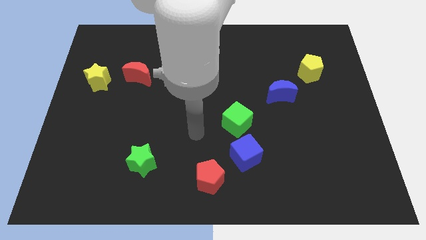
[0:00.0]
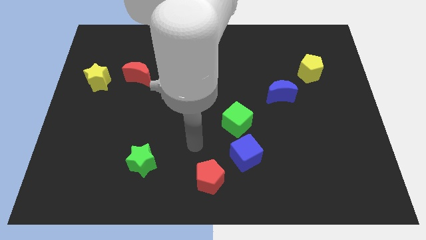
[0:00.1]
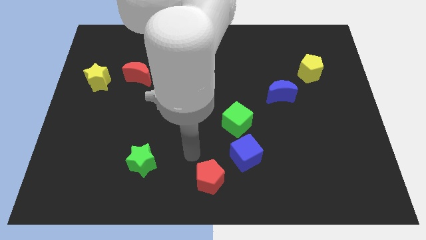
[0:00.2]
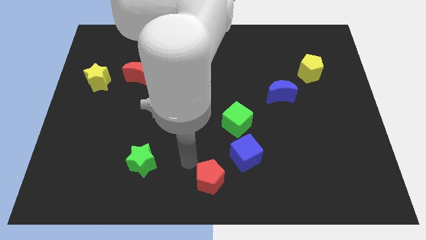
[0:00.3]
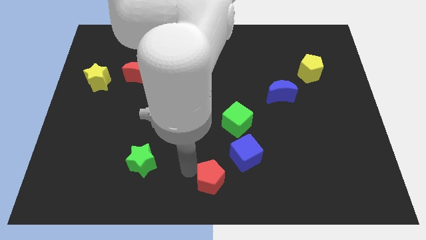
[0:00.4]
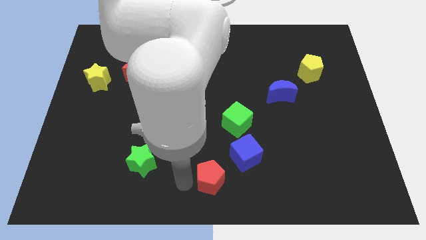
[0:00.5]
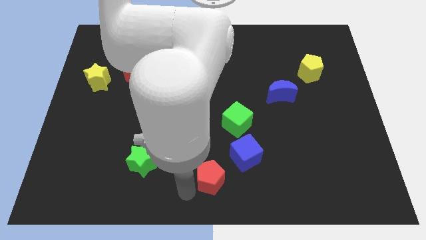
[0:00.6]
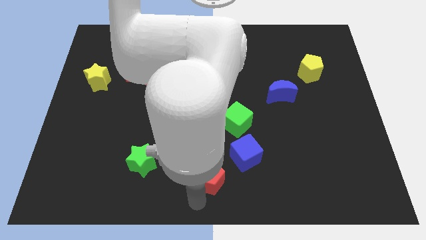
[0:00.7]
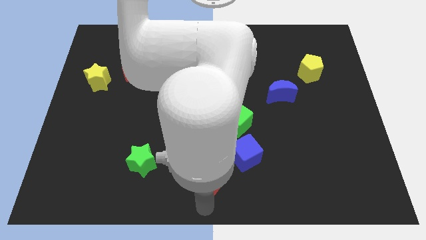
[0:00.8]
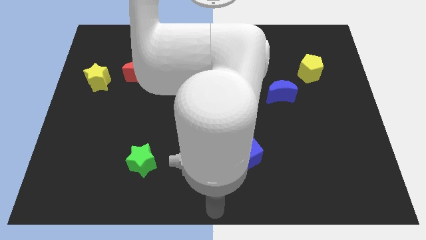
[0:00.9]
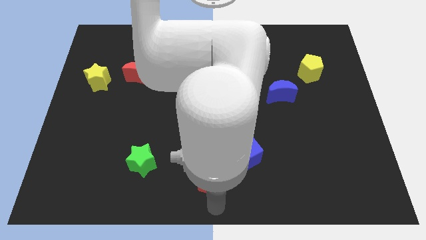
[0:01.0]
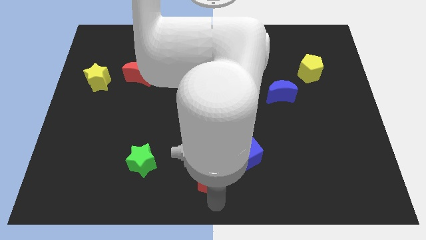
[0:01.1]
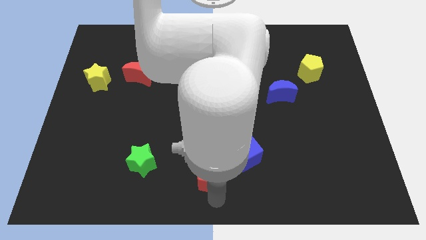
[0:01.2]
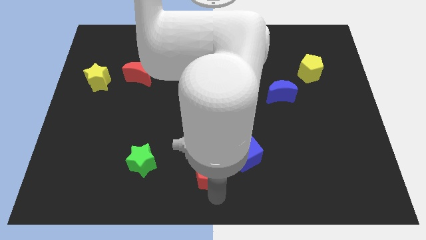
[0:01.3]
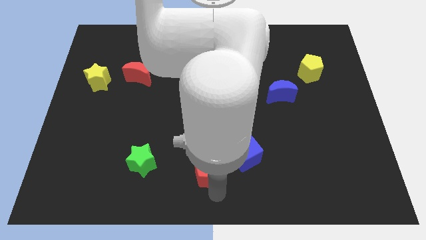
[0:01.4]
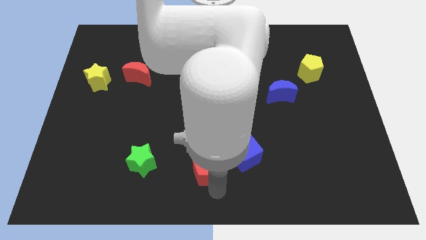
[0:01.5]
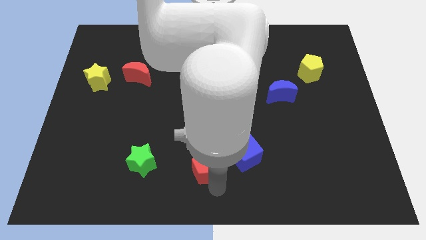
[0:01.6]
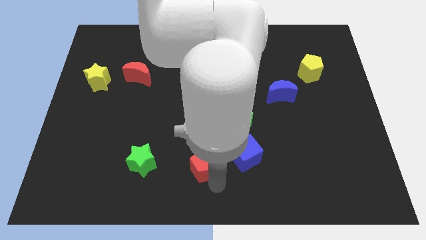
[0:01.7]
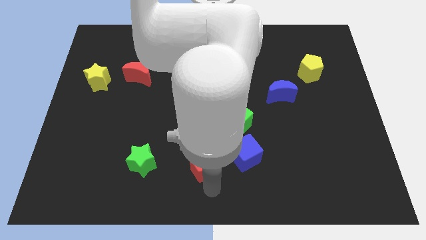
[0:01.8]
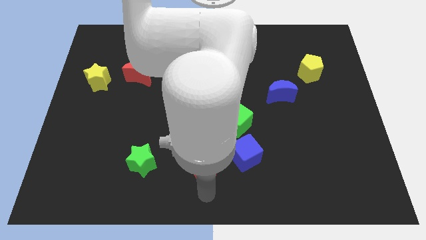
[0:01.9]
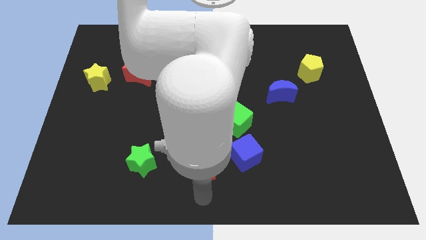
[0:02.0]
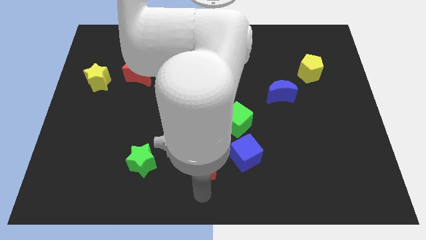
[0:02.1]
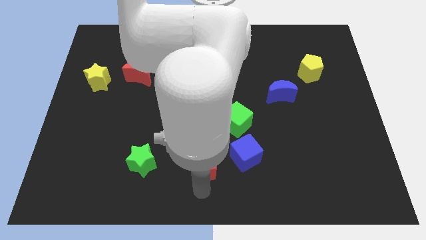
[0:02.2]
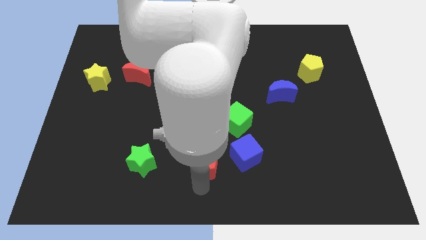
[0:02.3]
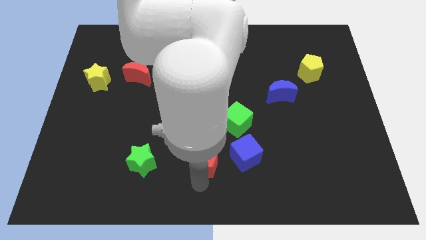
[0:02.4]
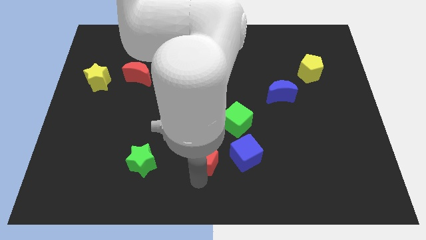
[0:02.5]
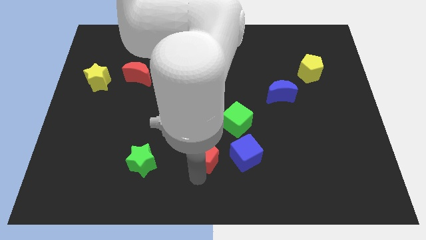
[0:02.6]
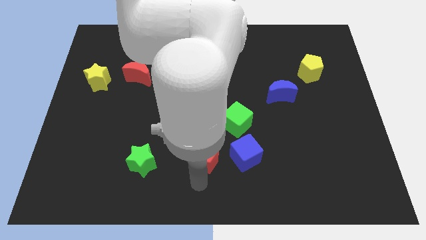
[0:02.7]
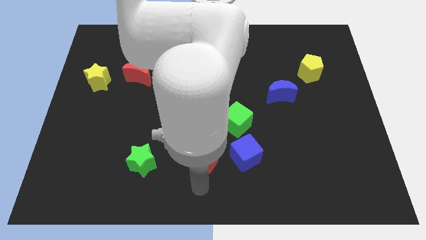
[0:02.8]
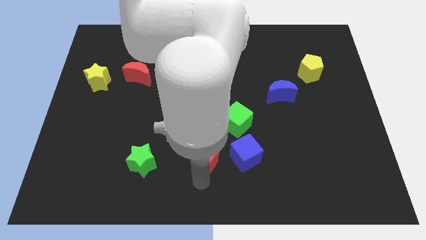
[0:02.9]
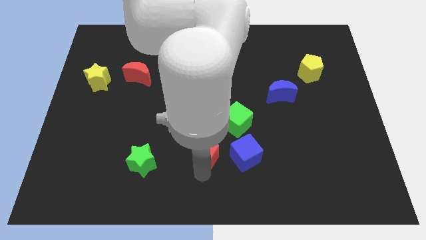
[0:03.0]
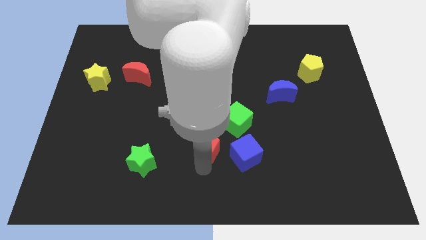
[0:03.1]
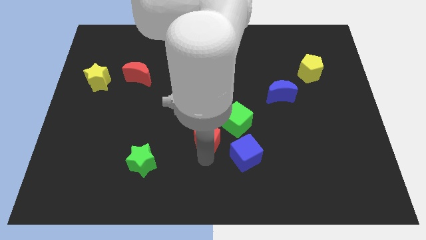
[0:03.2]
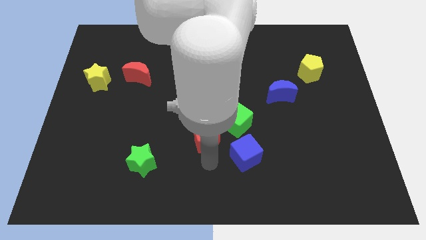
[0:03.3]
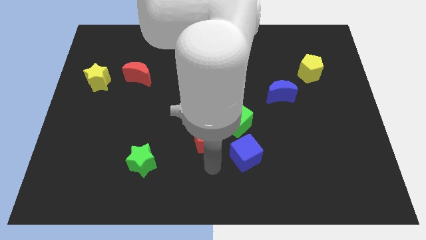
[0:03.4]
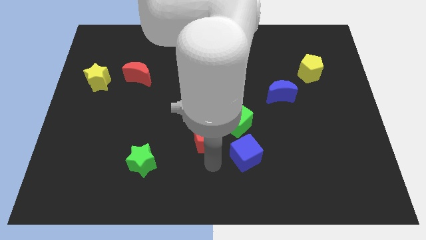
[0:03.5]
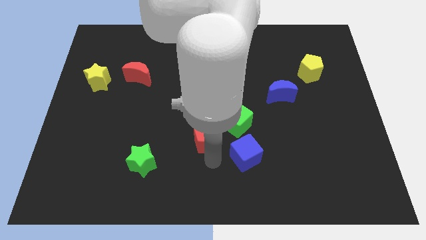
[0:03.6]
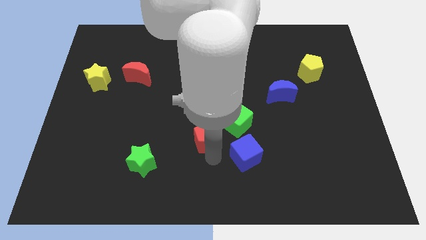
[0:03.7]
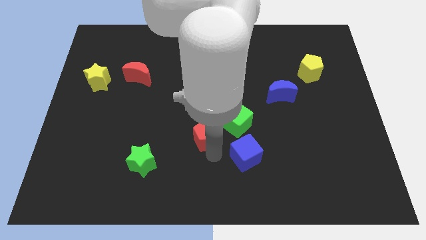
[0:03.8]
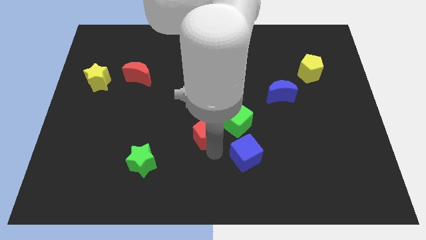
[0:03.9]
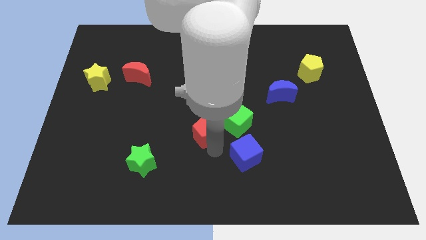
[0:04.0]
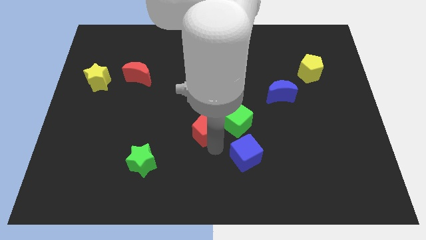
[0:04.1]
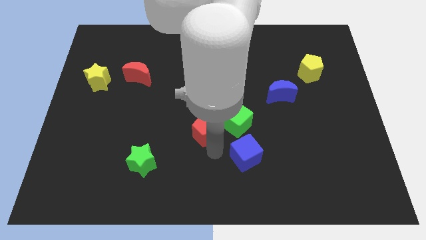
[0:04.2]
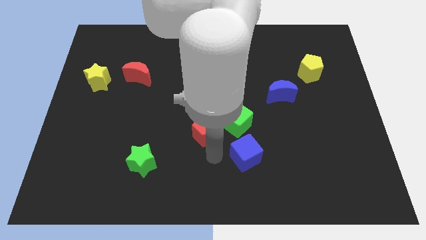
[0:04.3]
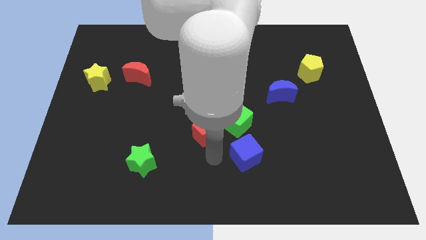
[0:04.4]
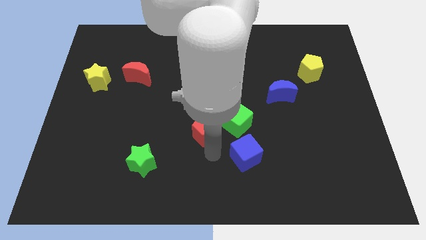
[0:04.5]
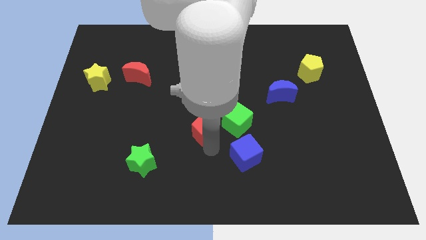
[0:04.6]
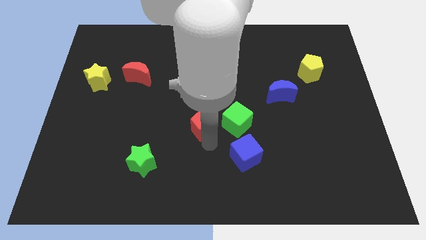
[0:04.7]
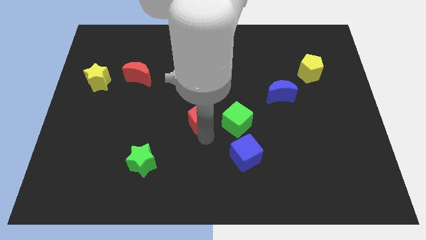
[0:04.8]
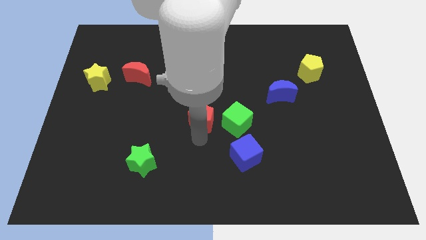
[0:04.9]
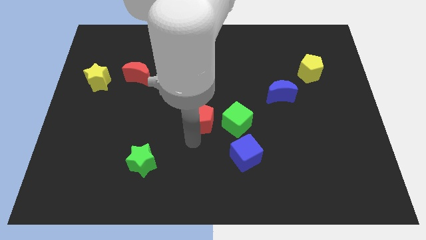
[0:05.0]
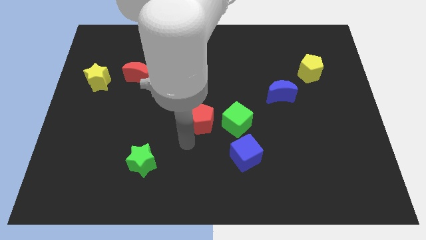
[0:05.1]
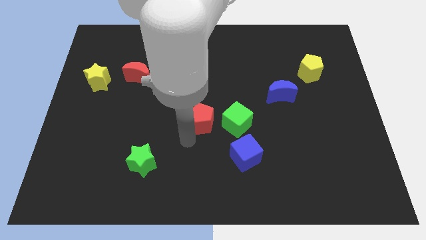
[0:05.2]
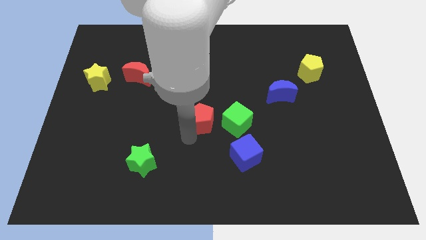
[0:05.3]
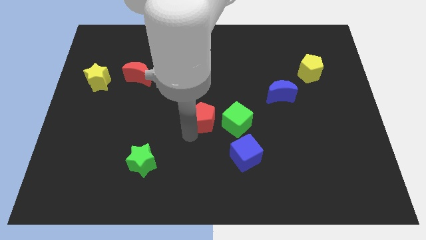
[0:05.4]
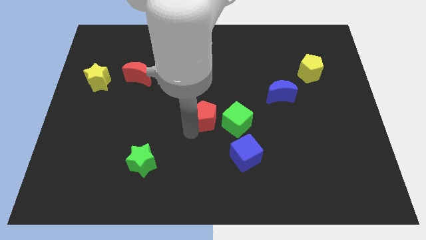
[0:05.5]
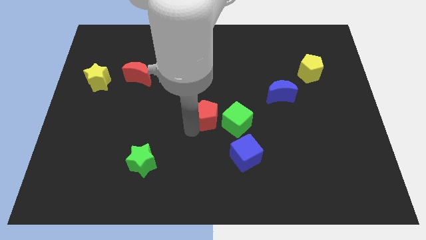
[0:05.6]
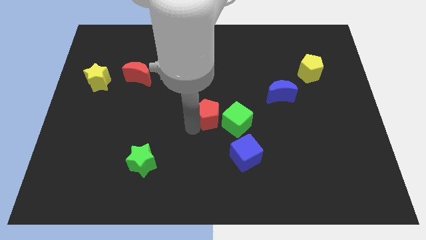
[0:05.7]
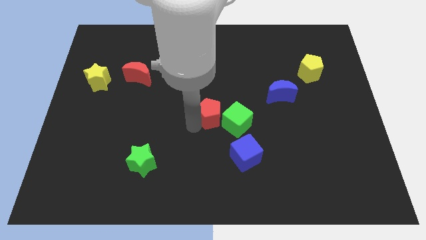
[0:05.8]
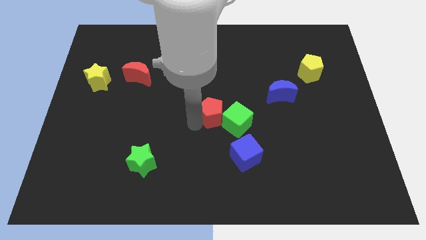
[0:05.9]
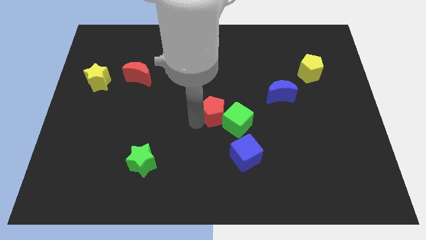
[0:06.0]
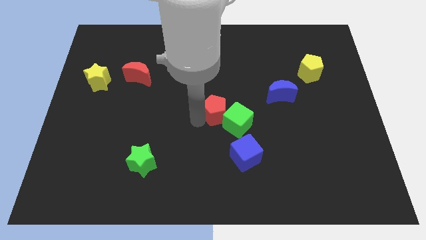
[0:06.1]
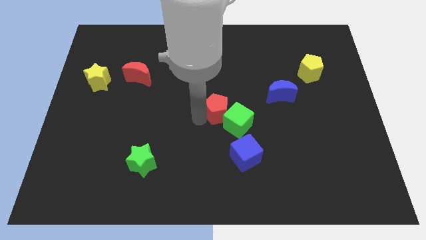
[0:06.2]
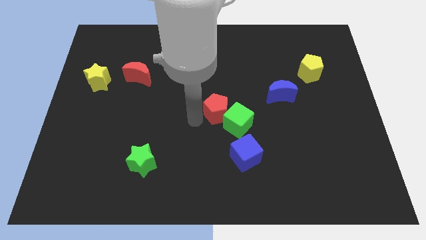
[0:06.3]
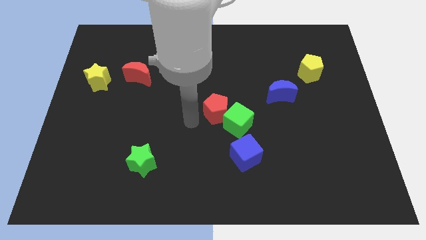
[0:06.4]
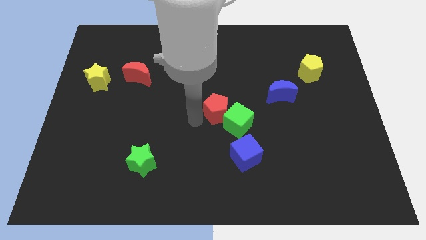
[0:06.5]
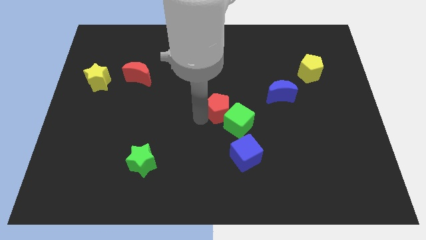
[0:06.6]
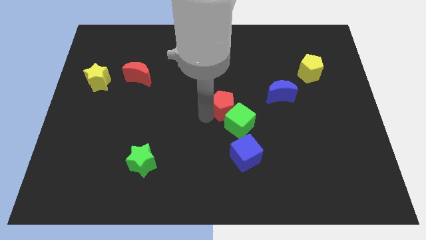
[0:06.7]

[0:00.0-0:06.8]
push the red pentagon to the top of the blue cube
